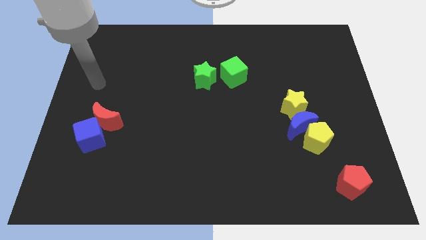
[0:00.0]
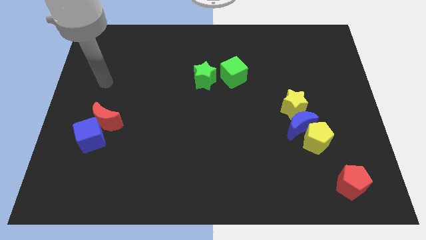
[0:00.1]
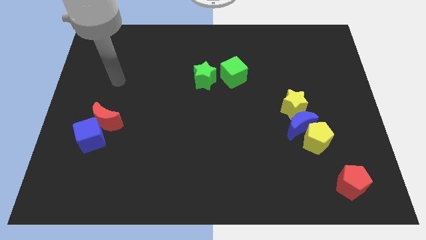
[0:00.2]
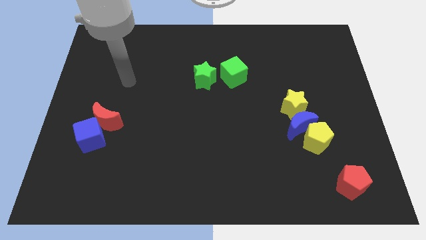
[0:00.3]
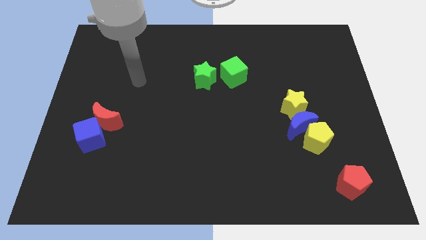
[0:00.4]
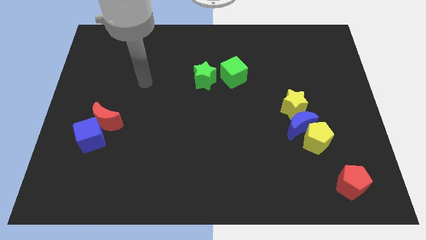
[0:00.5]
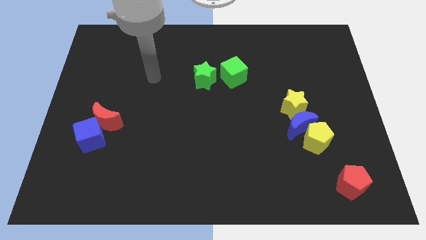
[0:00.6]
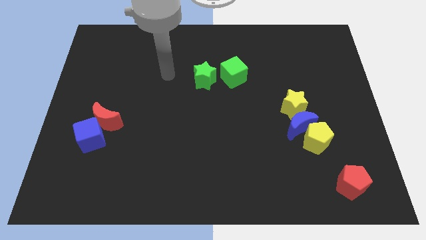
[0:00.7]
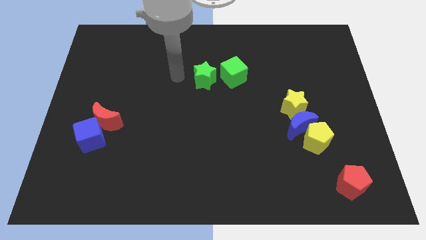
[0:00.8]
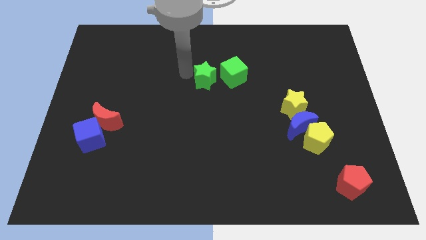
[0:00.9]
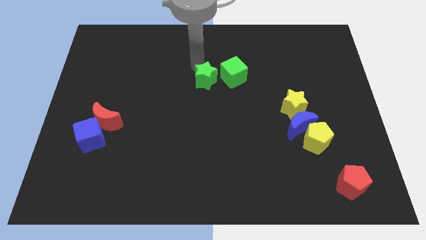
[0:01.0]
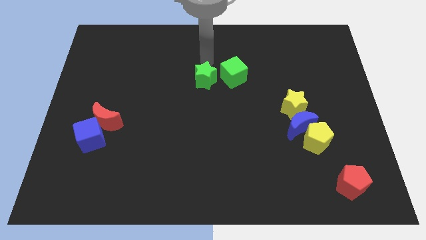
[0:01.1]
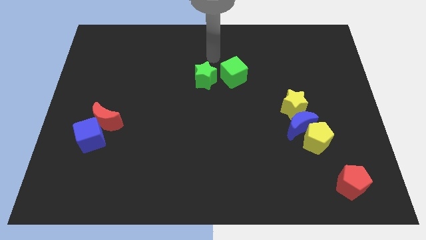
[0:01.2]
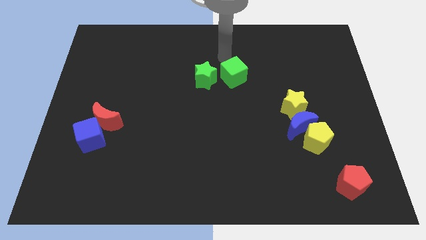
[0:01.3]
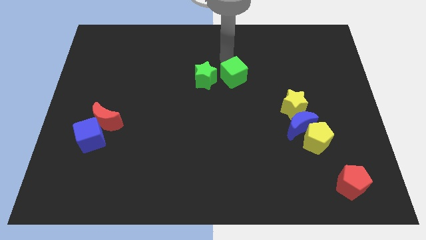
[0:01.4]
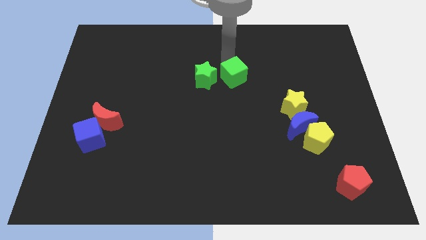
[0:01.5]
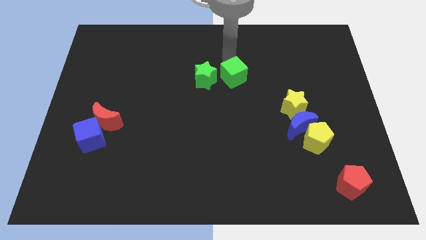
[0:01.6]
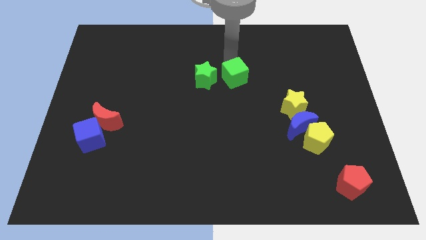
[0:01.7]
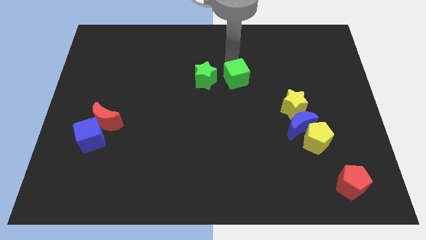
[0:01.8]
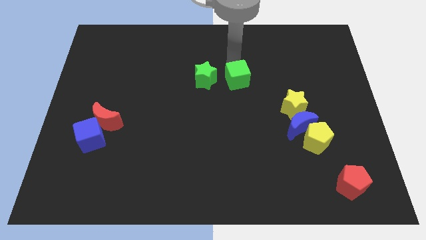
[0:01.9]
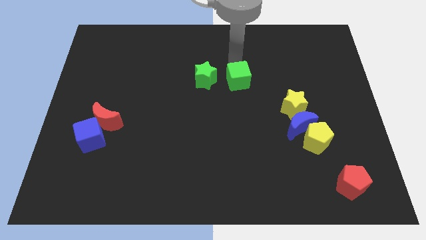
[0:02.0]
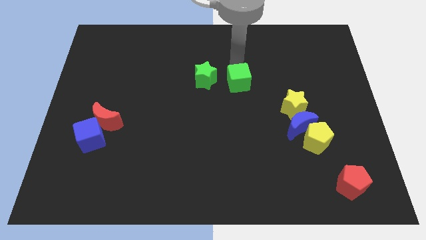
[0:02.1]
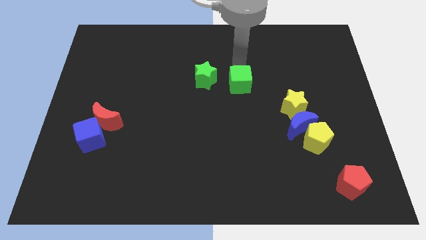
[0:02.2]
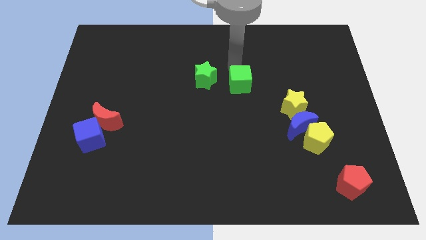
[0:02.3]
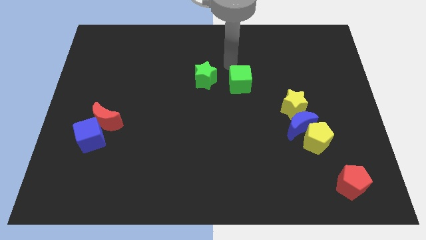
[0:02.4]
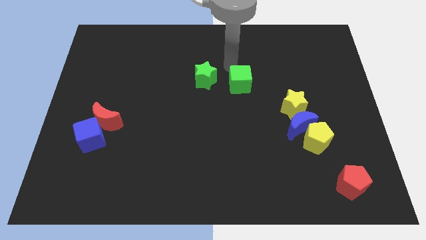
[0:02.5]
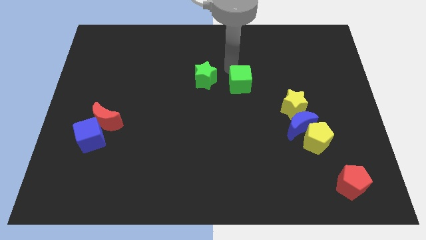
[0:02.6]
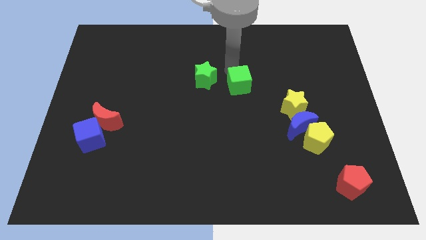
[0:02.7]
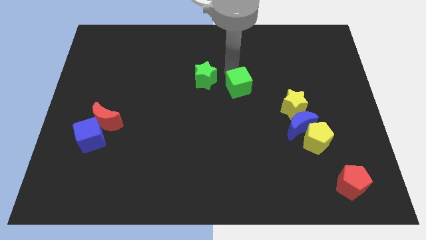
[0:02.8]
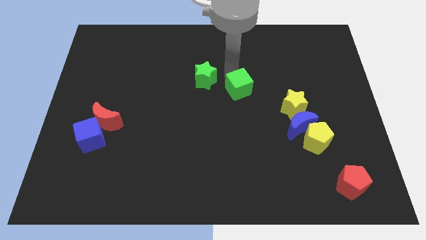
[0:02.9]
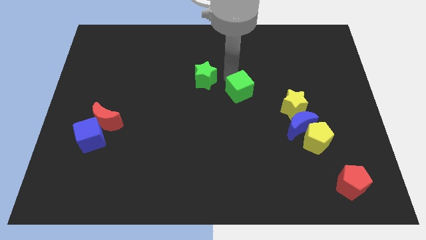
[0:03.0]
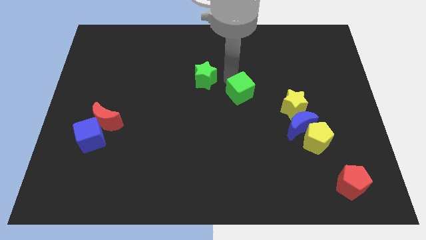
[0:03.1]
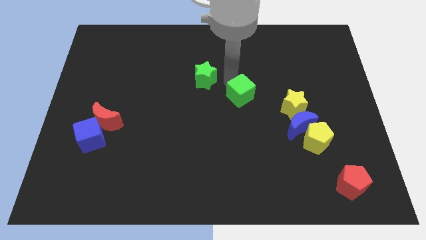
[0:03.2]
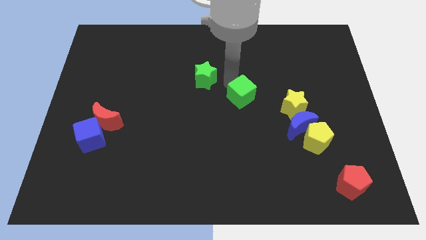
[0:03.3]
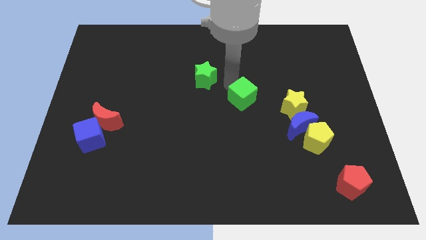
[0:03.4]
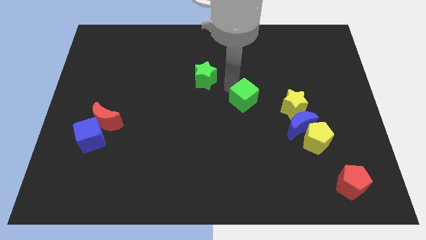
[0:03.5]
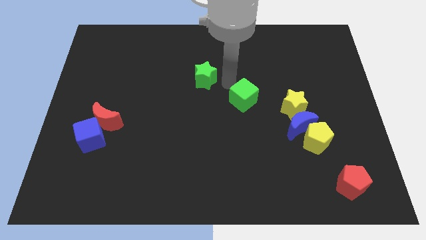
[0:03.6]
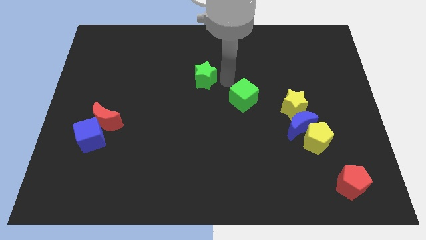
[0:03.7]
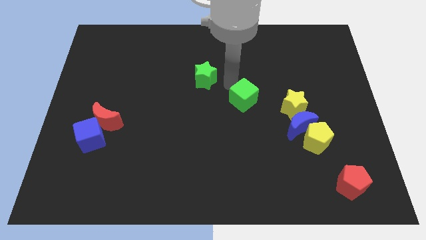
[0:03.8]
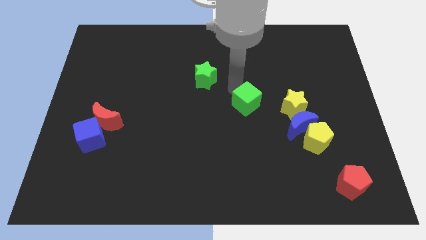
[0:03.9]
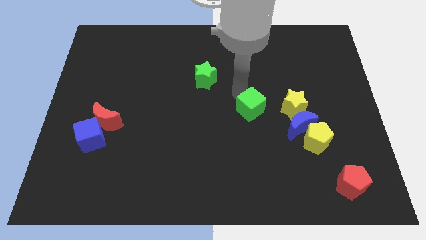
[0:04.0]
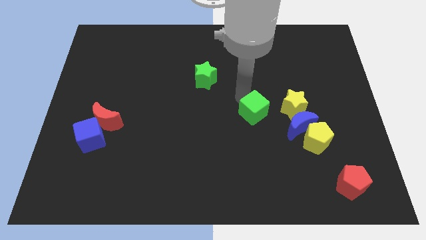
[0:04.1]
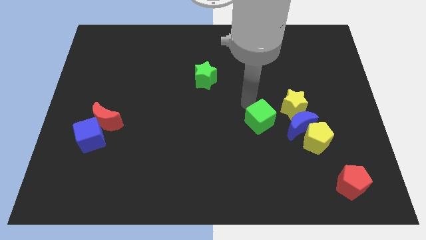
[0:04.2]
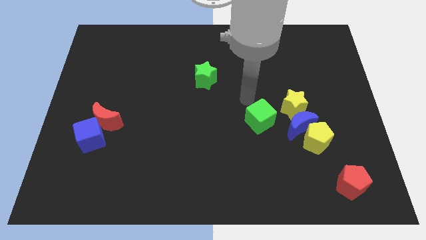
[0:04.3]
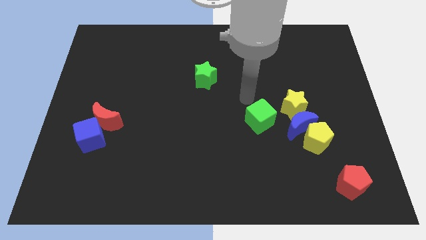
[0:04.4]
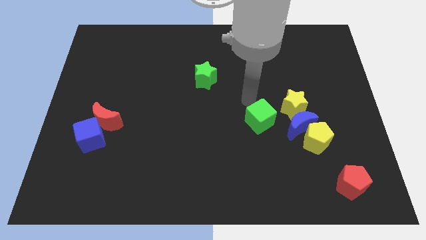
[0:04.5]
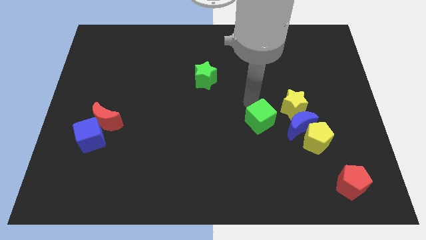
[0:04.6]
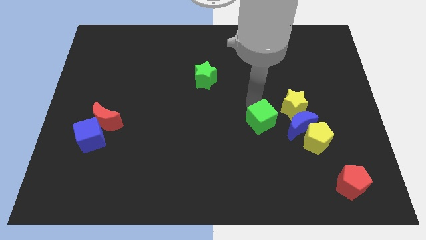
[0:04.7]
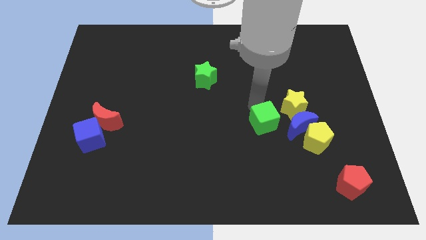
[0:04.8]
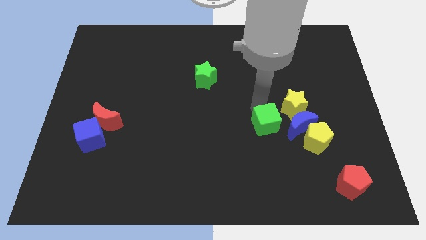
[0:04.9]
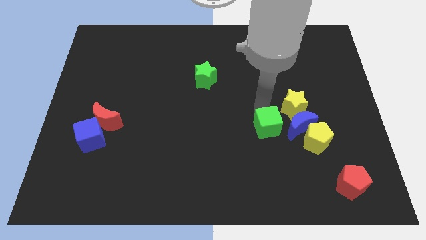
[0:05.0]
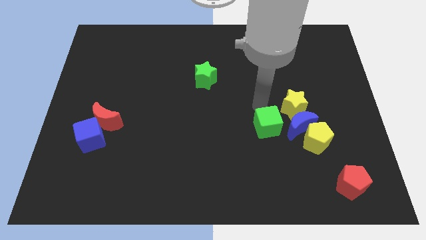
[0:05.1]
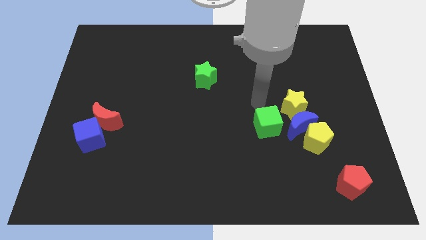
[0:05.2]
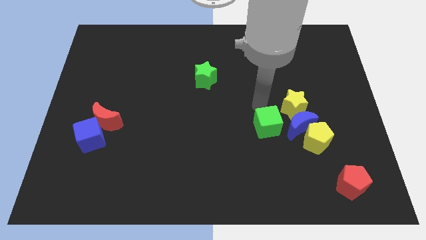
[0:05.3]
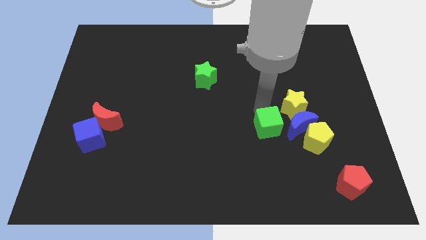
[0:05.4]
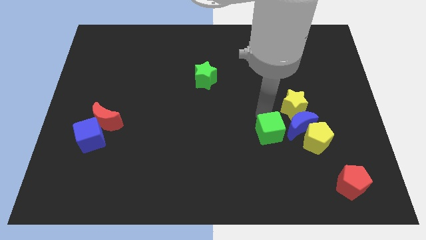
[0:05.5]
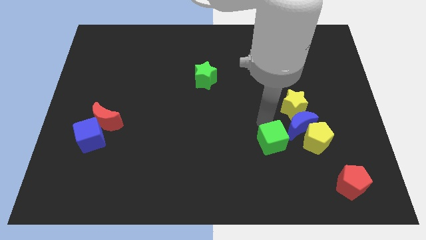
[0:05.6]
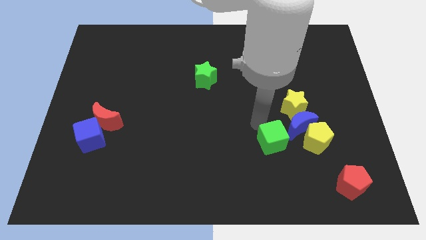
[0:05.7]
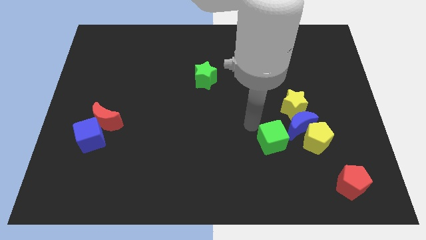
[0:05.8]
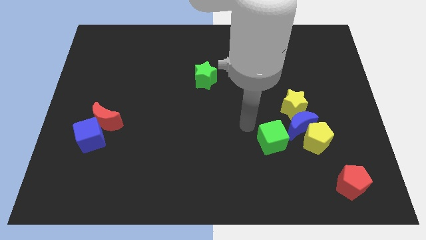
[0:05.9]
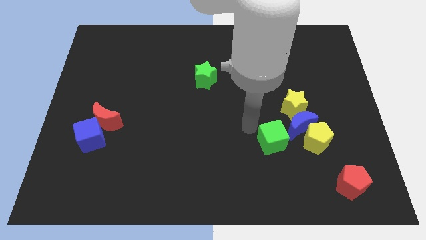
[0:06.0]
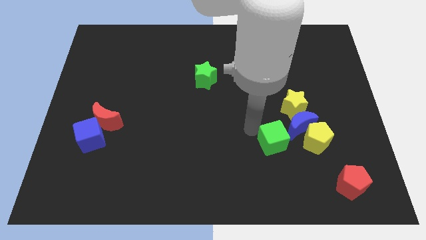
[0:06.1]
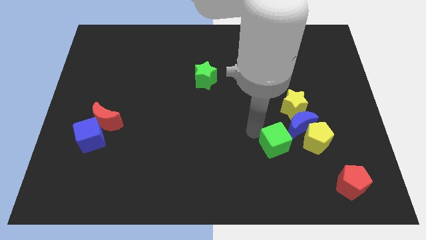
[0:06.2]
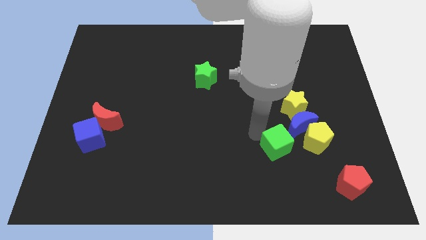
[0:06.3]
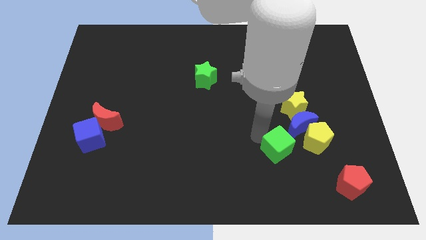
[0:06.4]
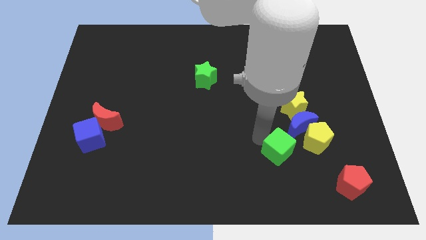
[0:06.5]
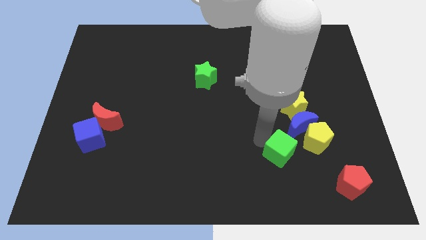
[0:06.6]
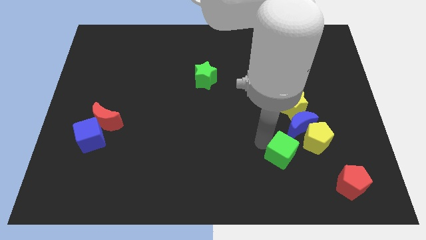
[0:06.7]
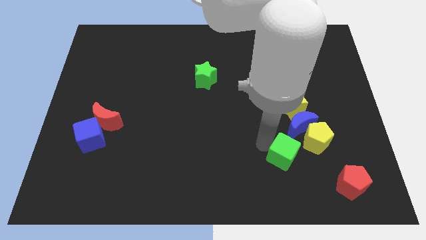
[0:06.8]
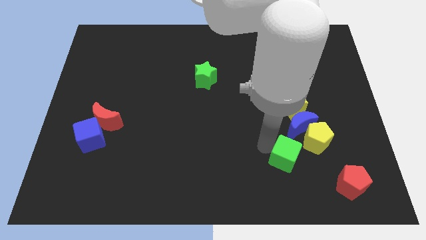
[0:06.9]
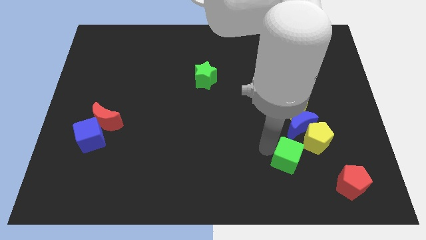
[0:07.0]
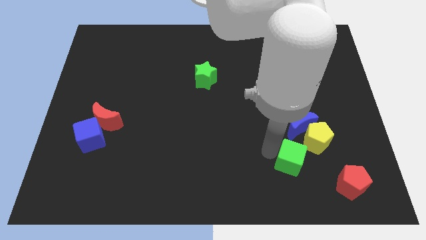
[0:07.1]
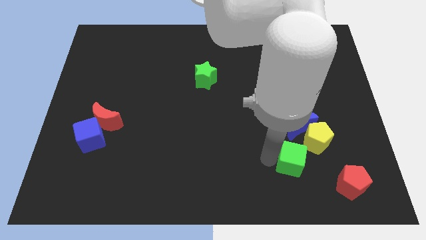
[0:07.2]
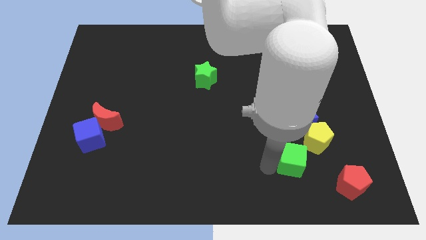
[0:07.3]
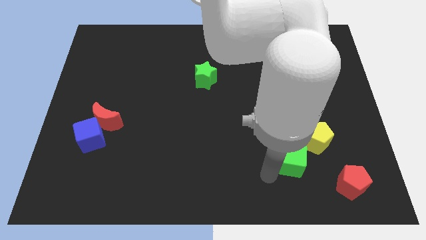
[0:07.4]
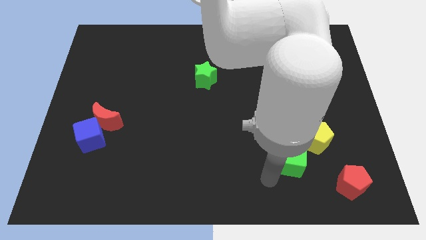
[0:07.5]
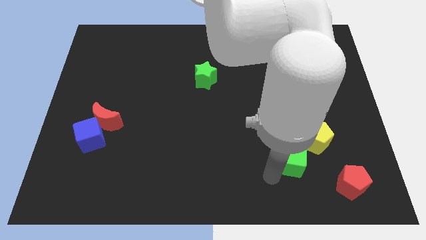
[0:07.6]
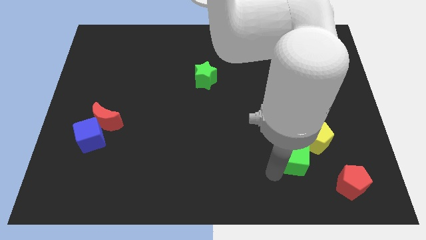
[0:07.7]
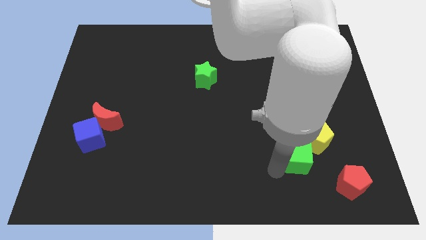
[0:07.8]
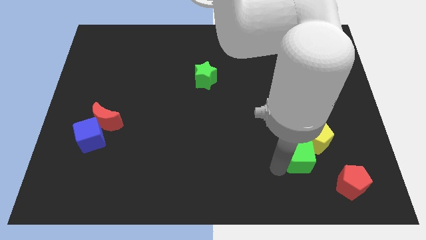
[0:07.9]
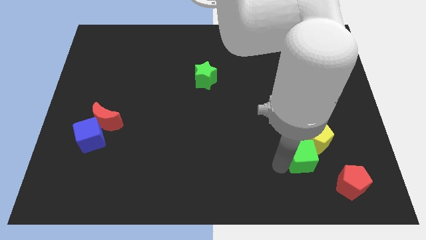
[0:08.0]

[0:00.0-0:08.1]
put the green cube to the yellow pentagon
